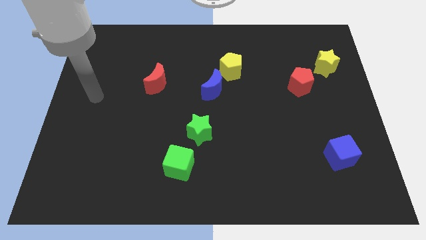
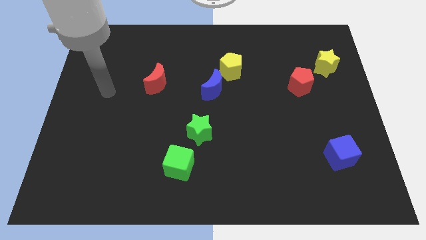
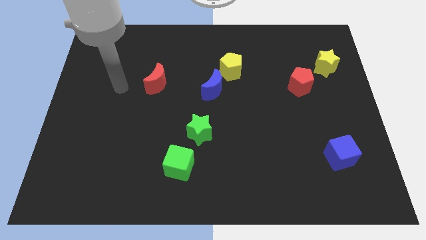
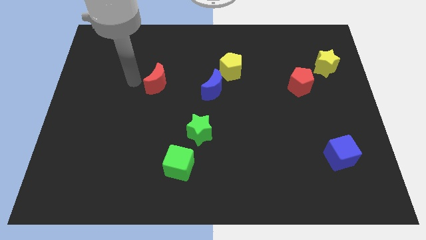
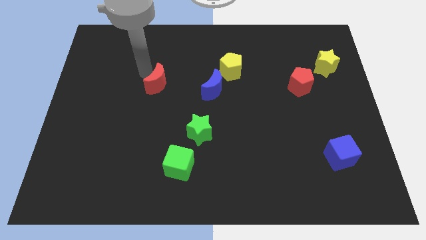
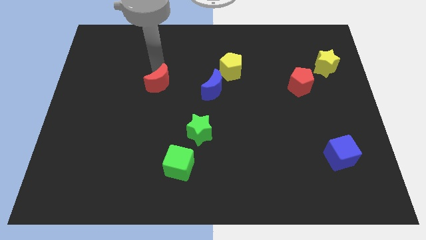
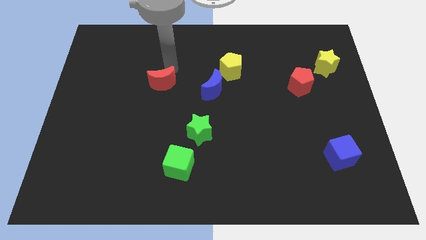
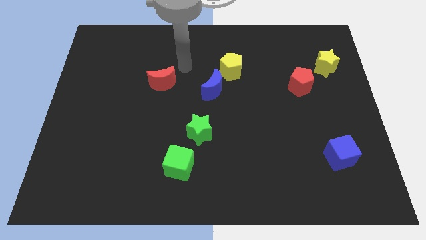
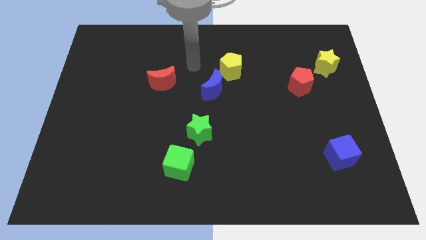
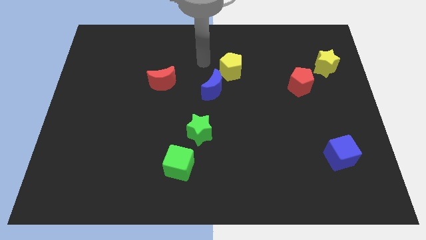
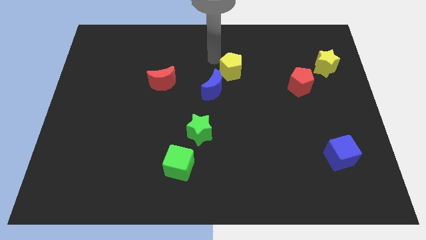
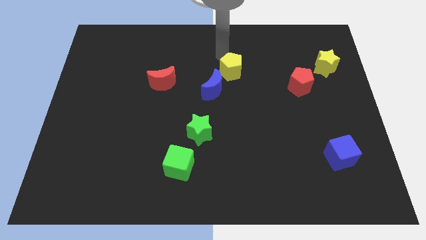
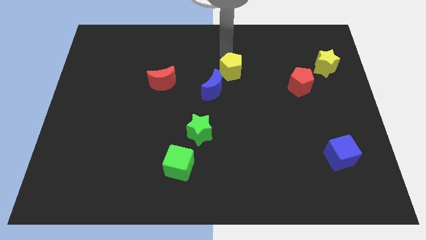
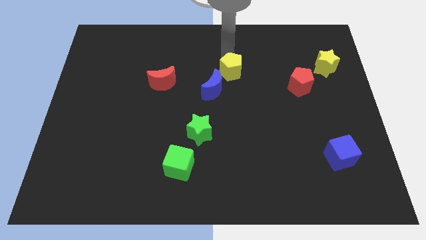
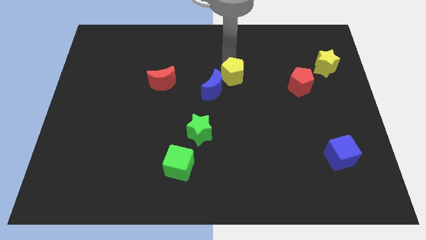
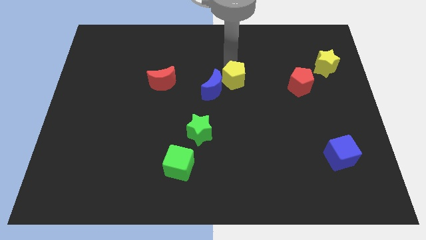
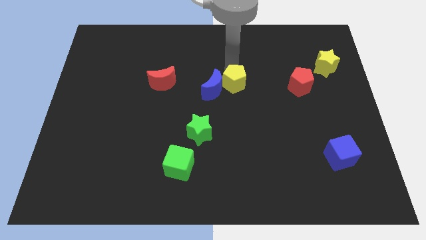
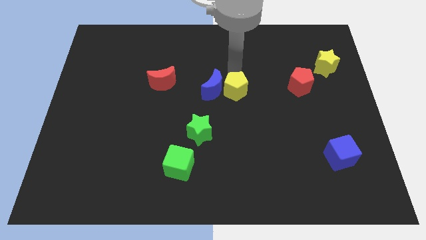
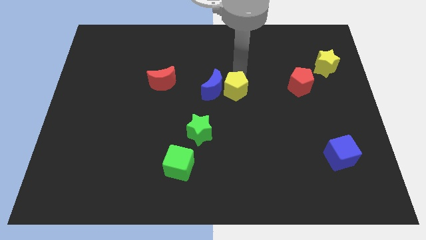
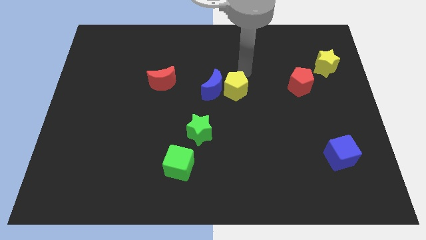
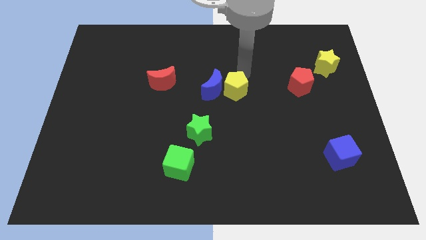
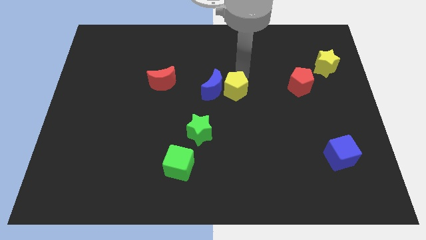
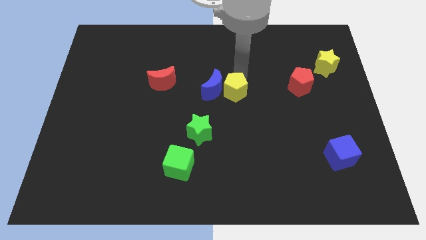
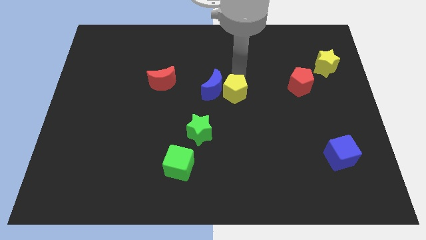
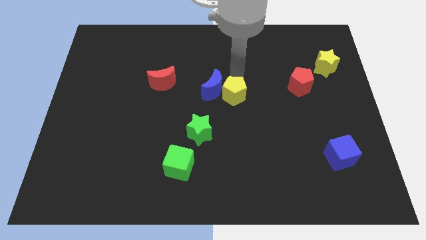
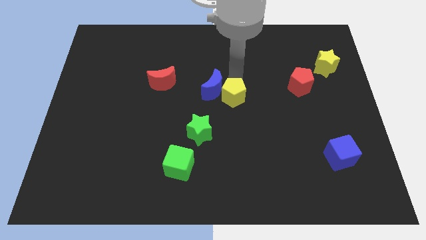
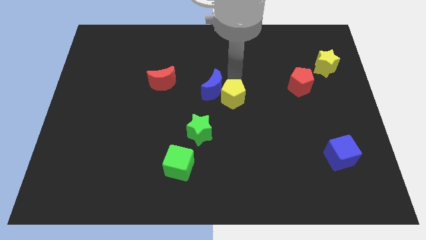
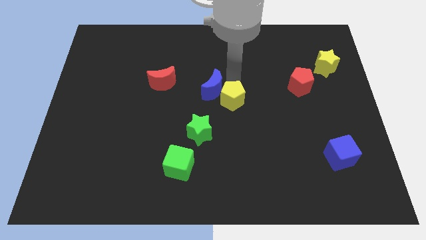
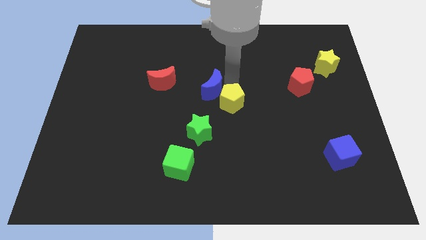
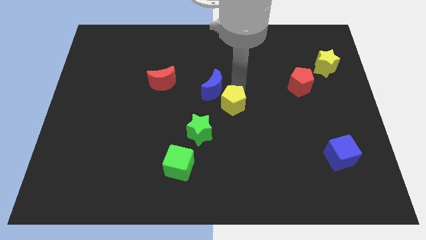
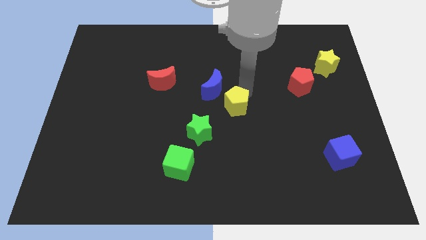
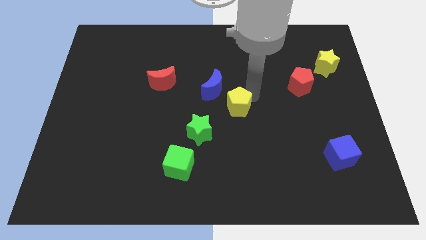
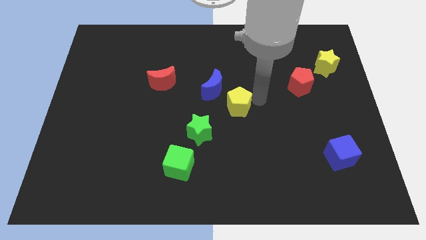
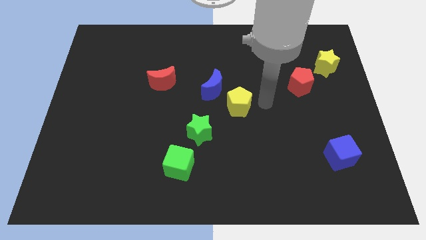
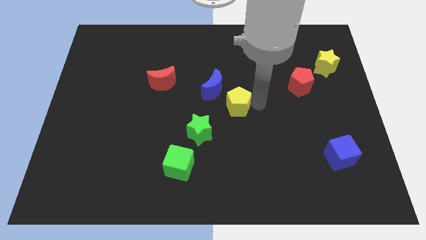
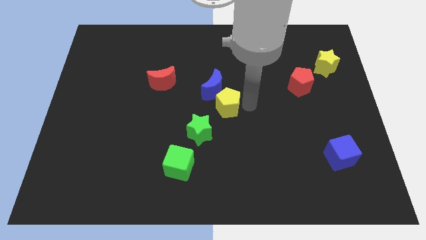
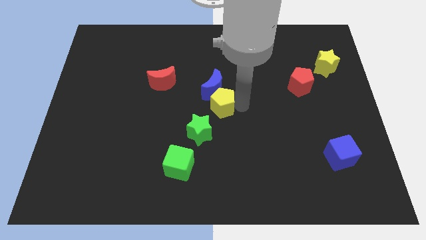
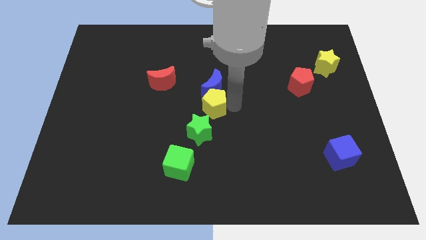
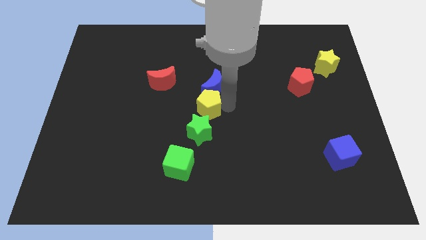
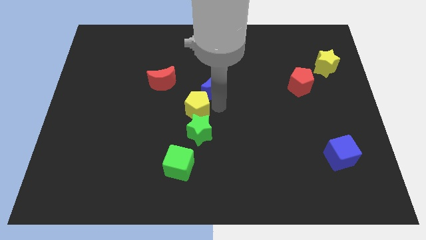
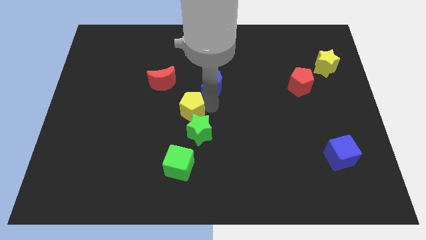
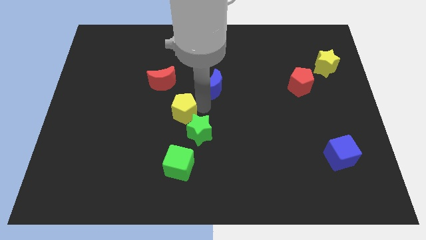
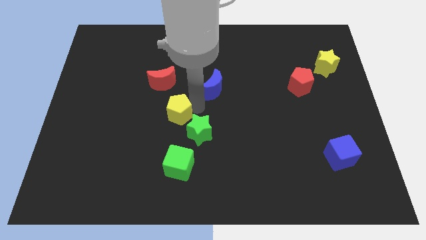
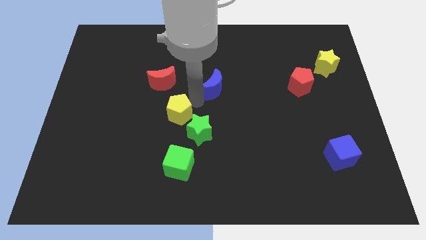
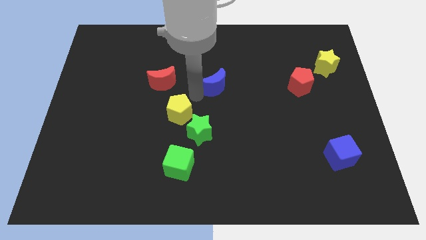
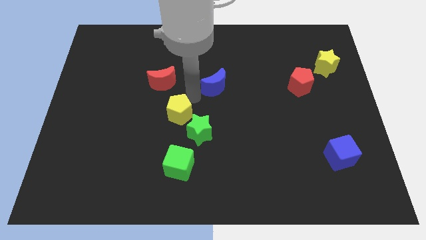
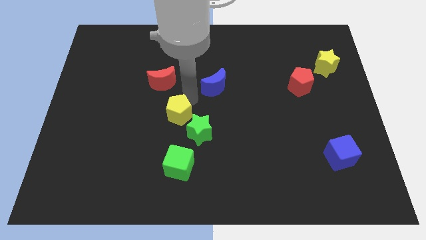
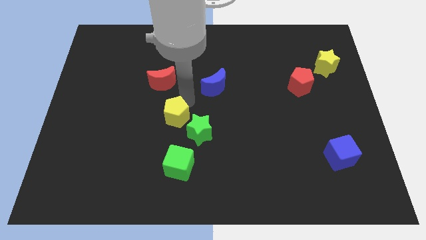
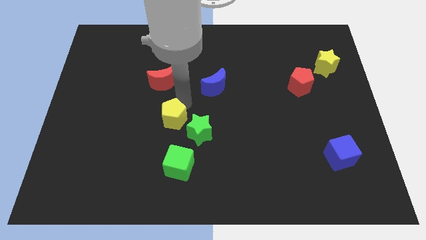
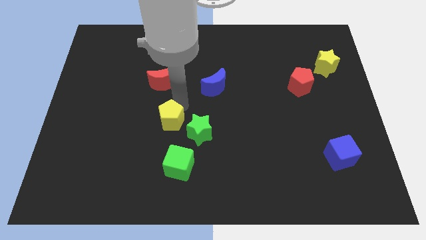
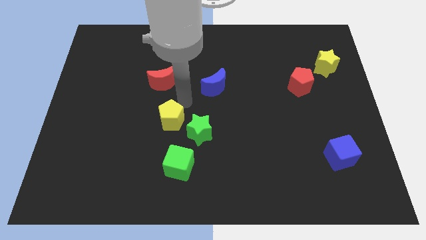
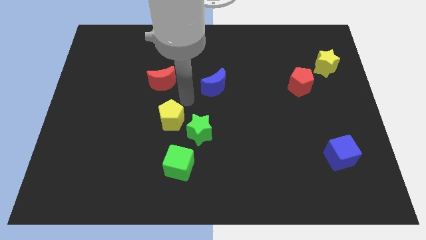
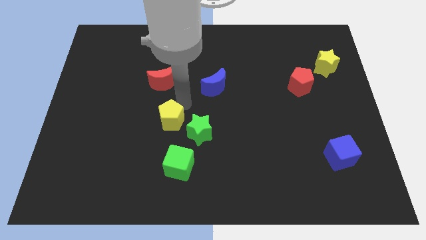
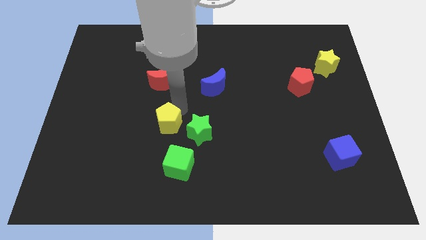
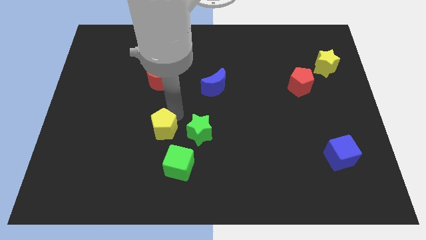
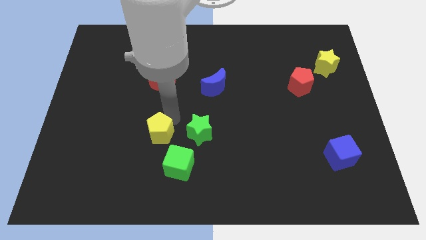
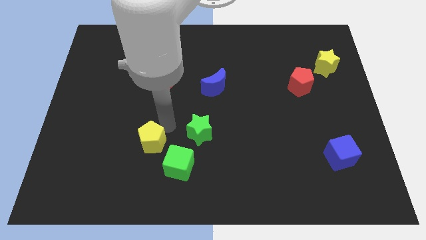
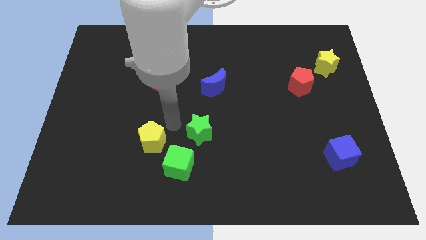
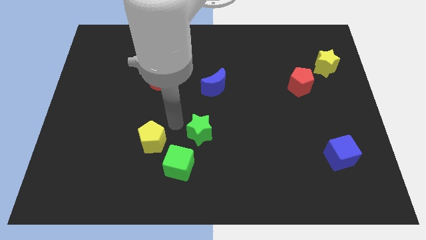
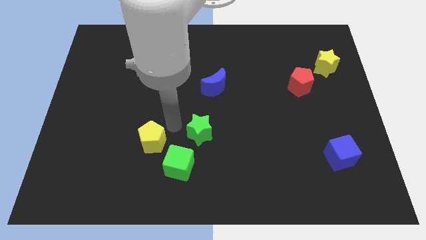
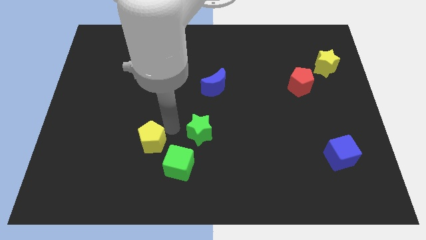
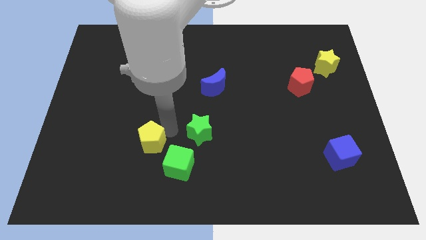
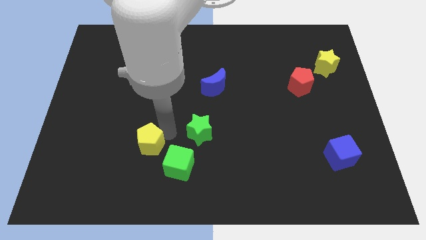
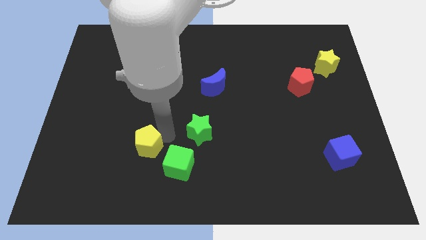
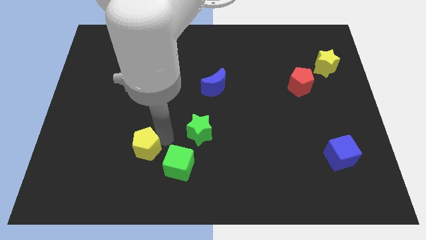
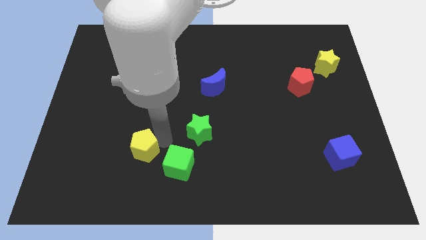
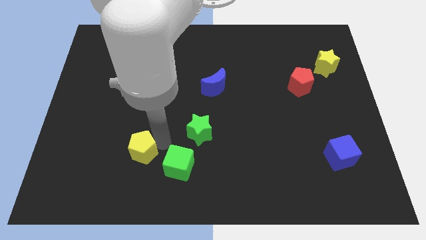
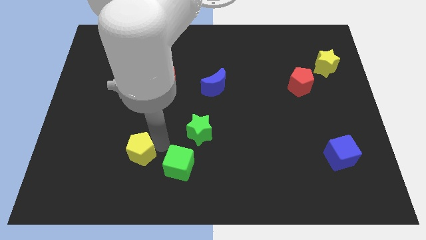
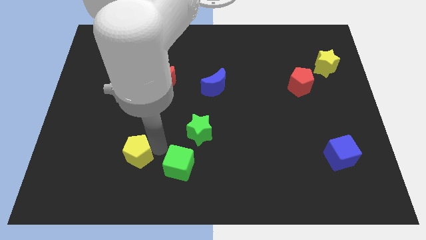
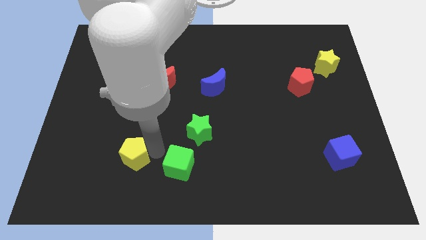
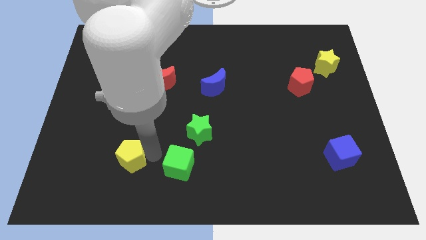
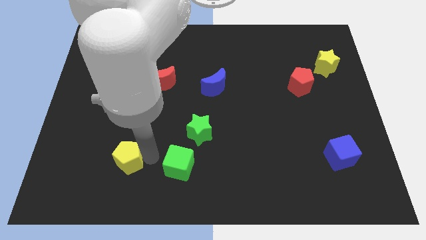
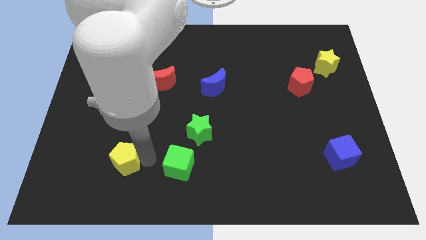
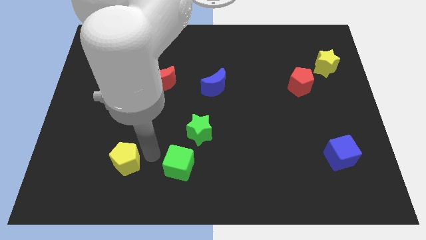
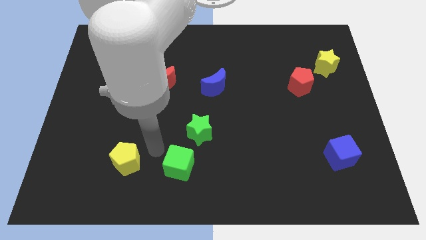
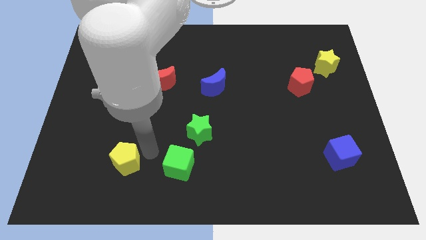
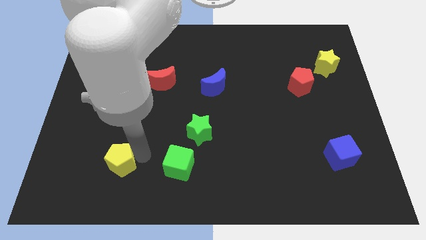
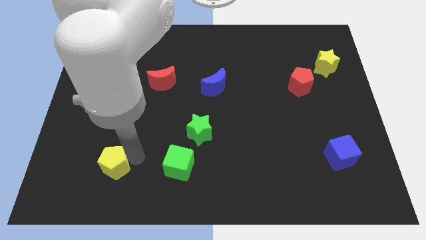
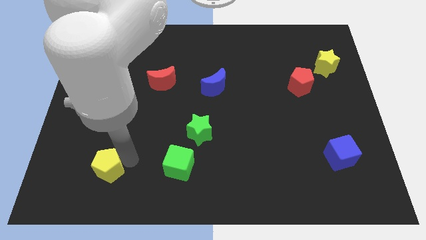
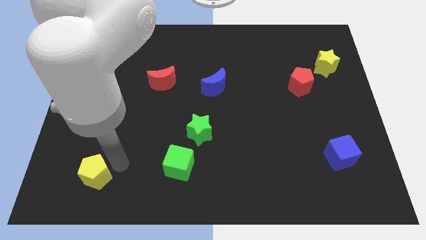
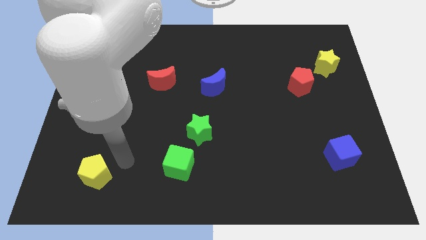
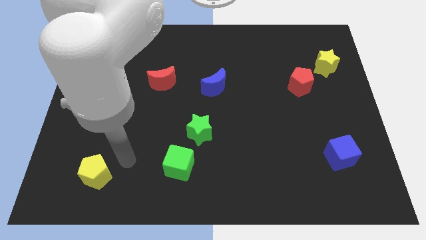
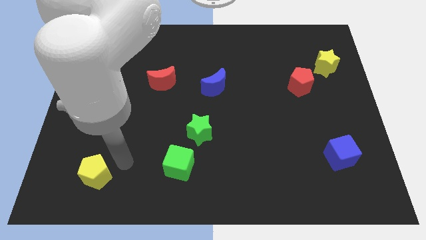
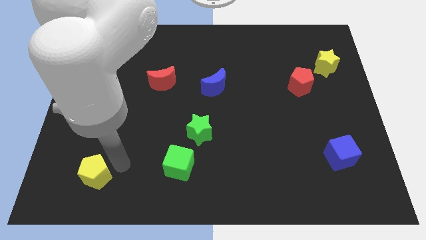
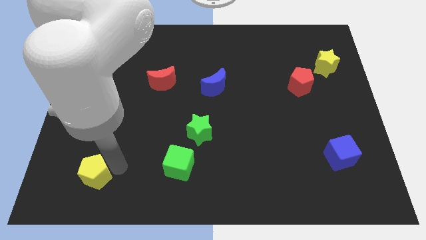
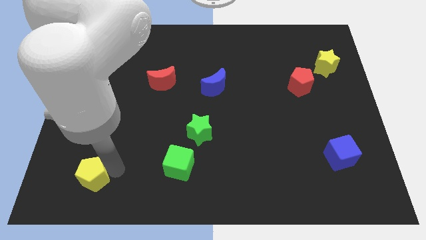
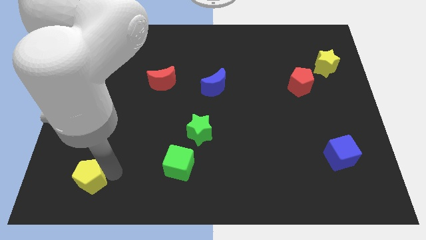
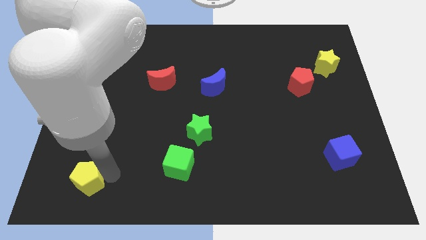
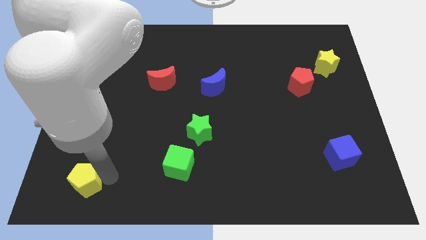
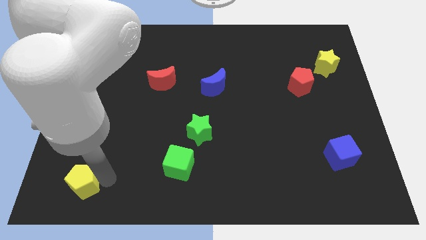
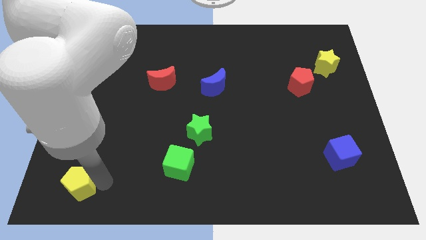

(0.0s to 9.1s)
move the yellow pentagon to the bottom left corner
